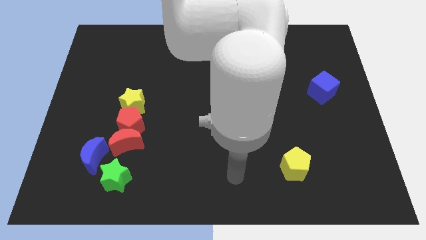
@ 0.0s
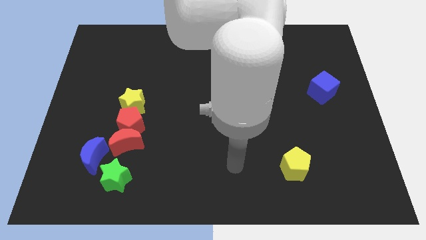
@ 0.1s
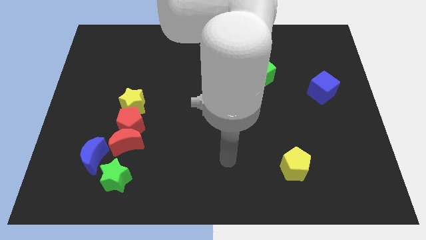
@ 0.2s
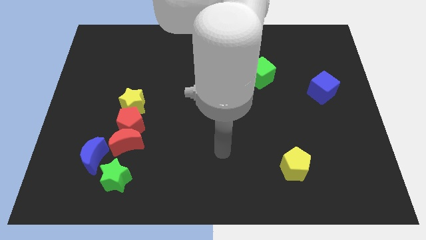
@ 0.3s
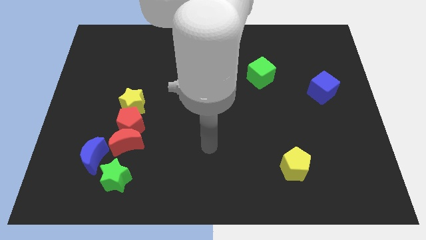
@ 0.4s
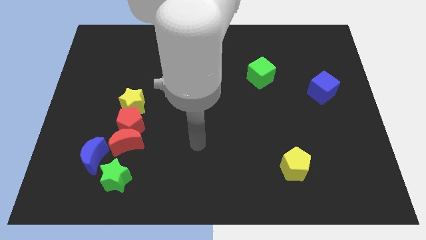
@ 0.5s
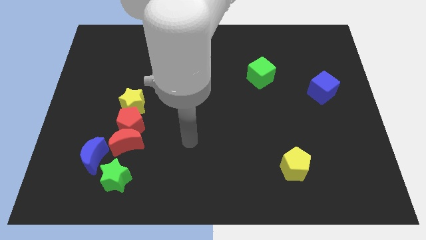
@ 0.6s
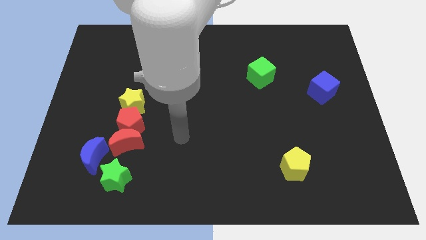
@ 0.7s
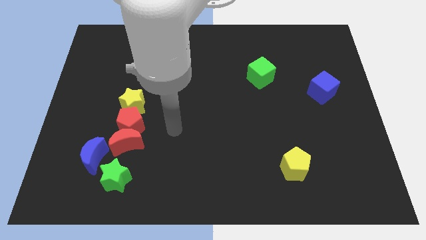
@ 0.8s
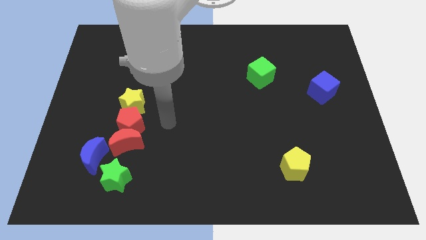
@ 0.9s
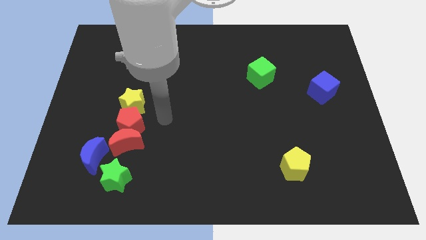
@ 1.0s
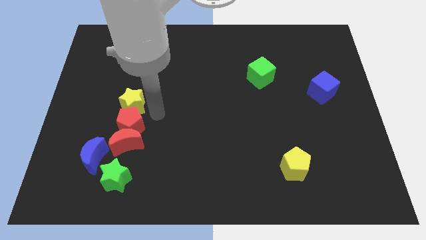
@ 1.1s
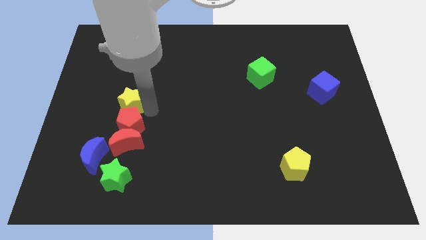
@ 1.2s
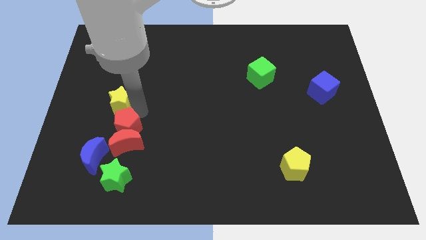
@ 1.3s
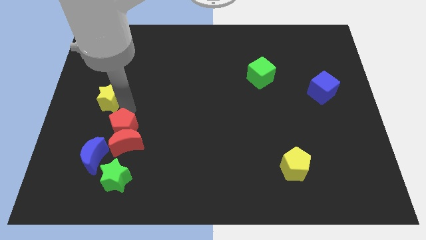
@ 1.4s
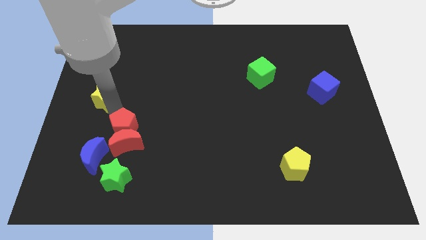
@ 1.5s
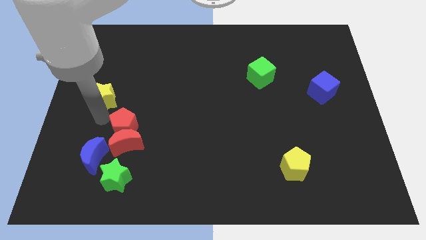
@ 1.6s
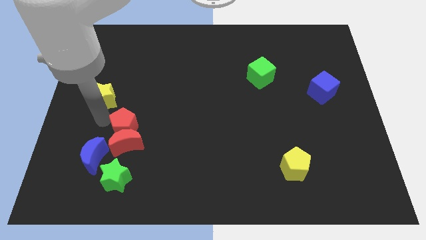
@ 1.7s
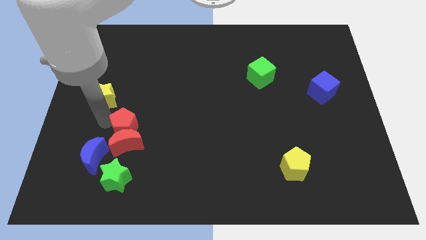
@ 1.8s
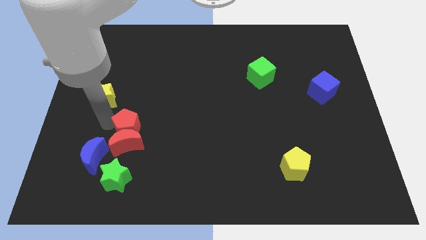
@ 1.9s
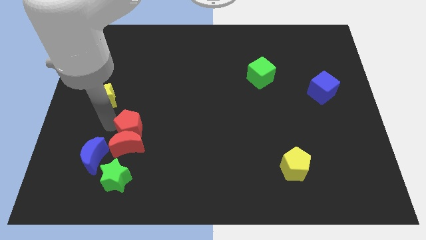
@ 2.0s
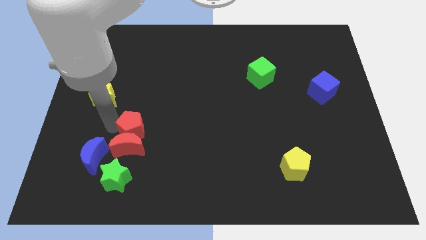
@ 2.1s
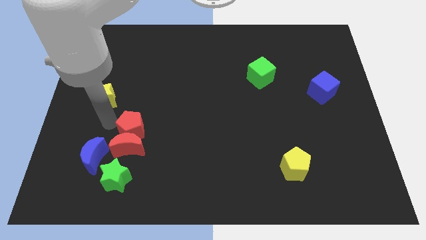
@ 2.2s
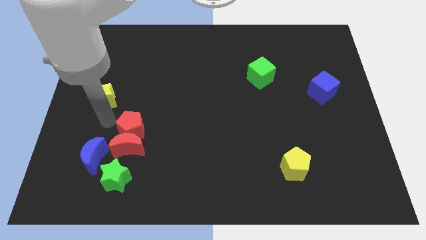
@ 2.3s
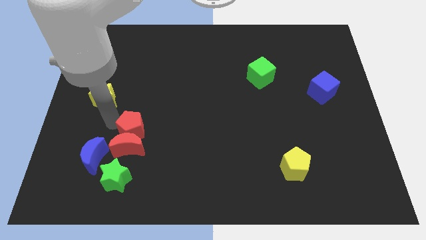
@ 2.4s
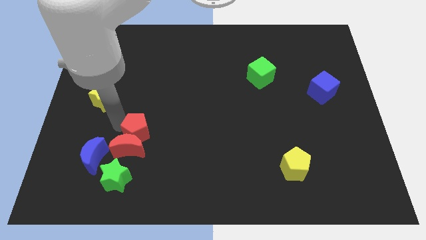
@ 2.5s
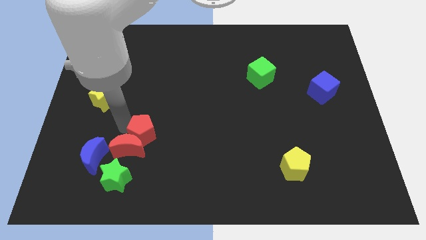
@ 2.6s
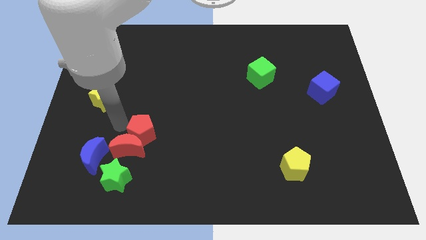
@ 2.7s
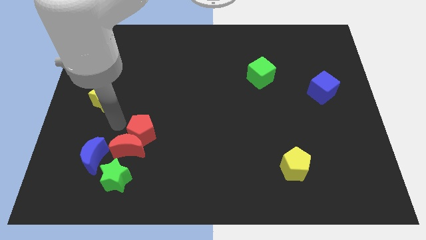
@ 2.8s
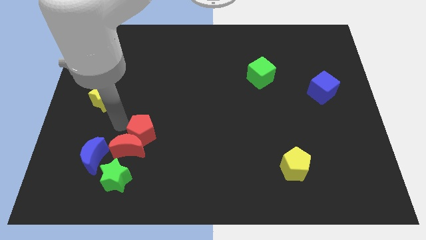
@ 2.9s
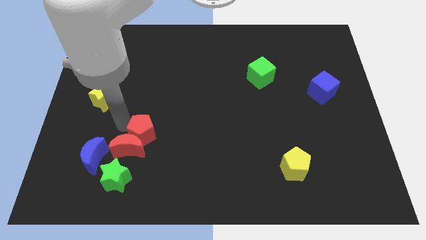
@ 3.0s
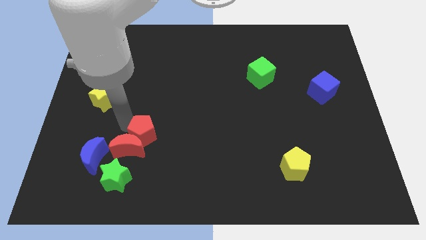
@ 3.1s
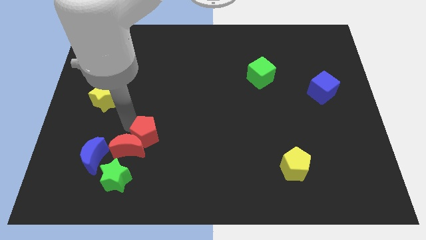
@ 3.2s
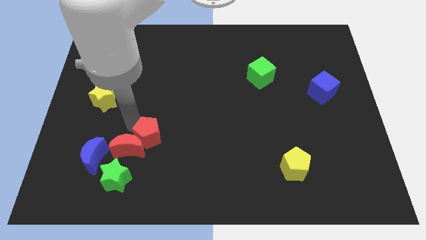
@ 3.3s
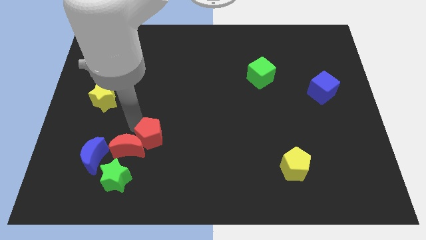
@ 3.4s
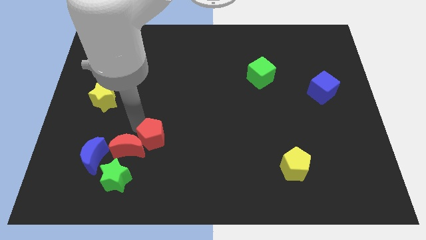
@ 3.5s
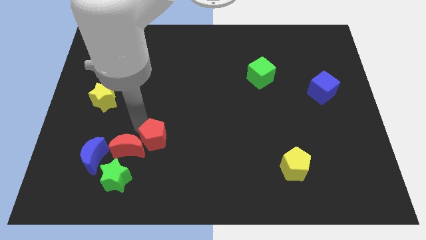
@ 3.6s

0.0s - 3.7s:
separate the red pentagon from the red moon and yellow star

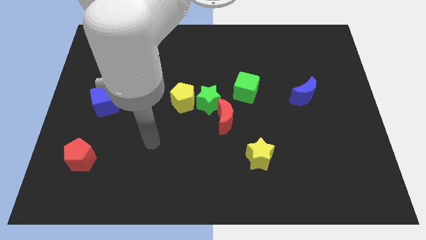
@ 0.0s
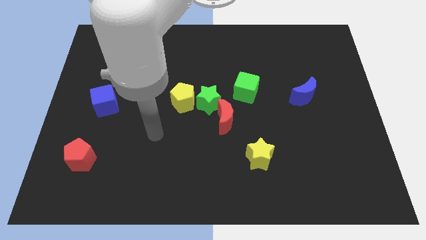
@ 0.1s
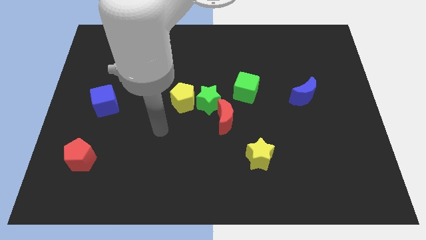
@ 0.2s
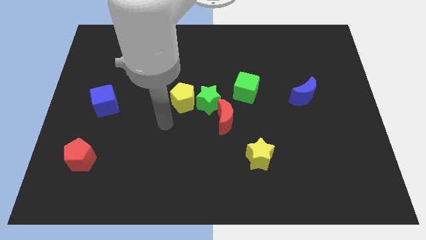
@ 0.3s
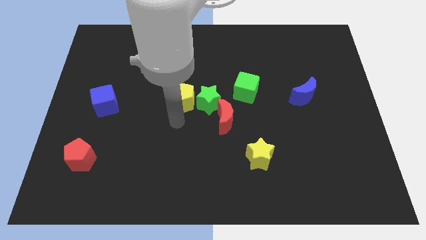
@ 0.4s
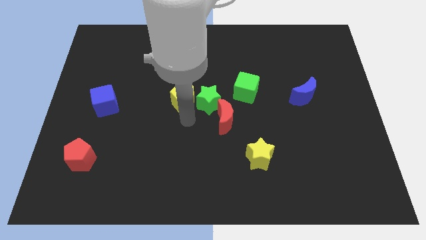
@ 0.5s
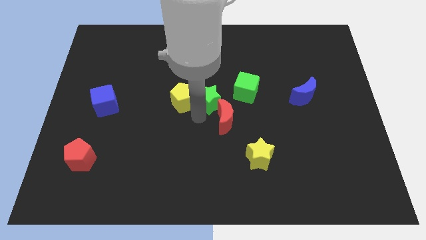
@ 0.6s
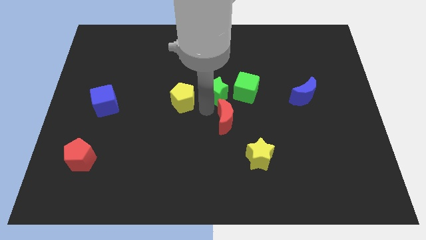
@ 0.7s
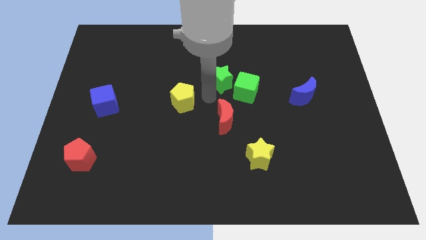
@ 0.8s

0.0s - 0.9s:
separate the yellow pentagon from the green star

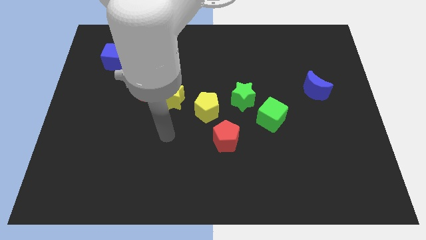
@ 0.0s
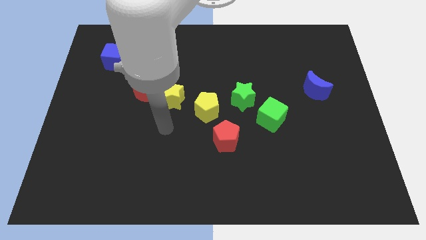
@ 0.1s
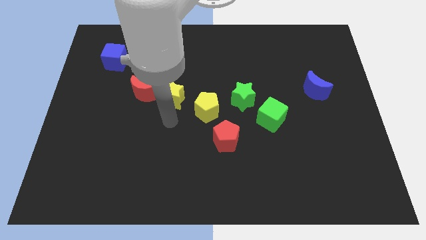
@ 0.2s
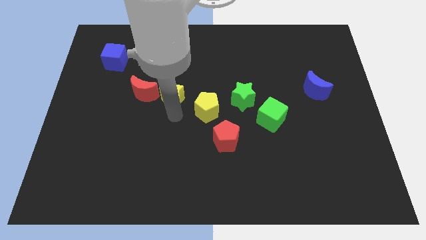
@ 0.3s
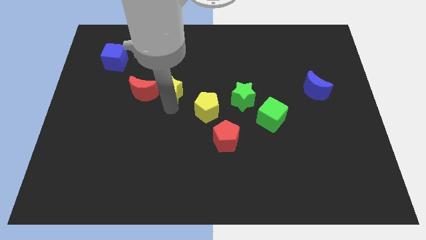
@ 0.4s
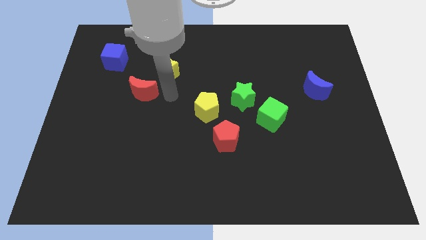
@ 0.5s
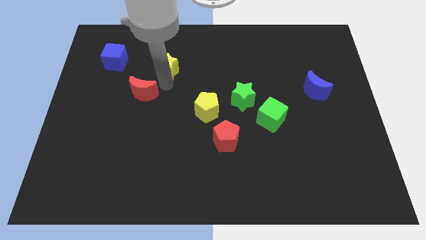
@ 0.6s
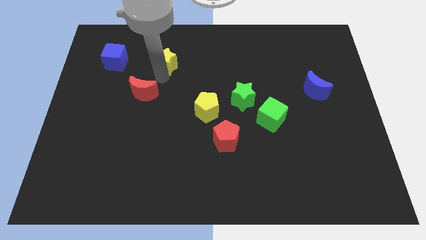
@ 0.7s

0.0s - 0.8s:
separate the red moon from the yellow star

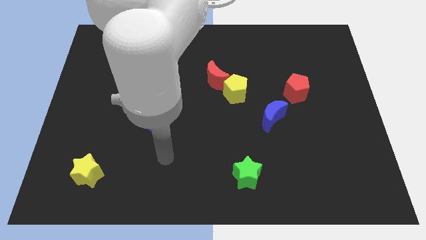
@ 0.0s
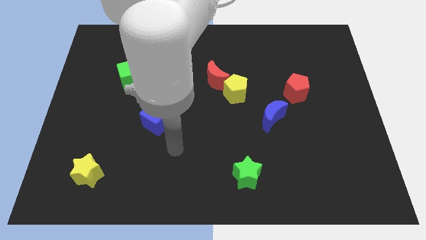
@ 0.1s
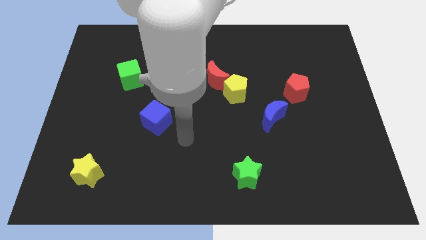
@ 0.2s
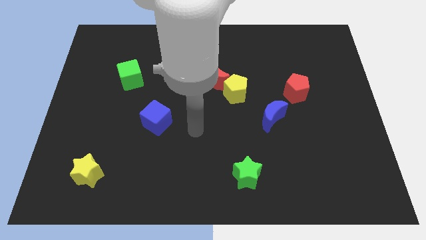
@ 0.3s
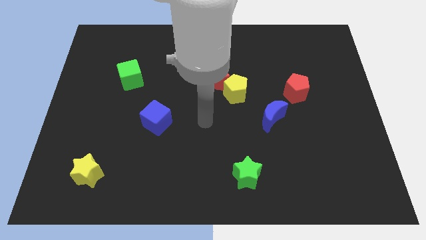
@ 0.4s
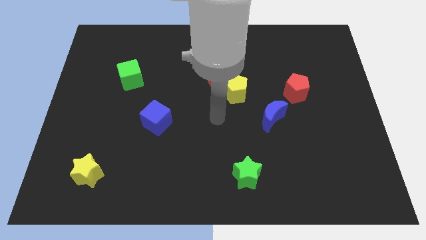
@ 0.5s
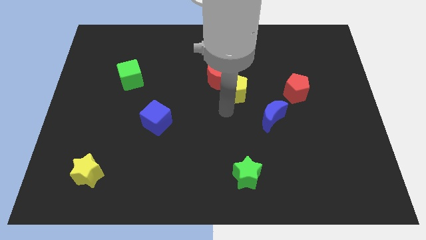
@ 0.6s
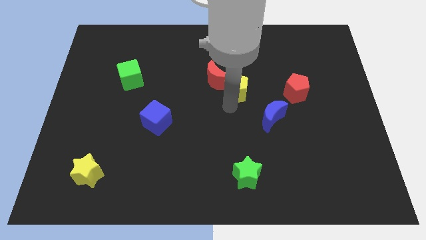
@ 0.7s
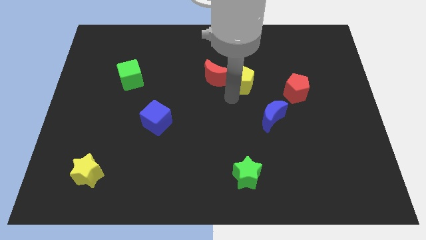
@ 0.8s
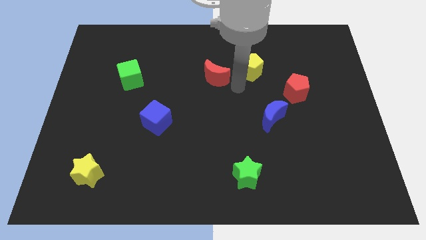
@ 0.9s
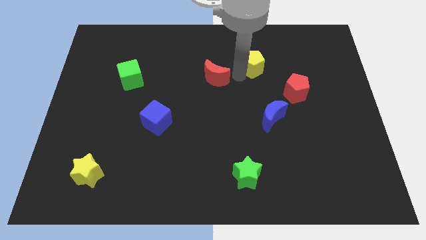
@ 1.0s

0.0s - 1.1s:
separate the red moon from the yellow pentagon

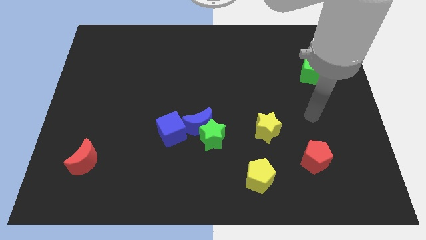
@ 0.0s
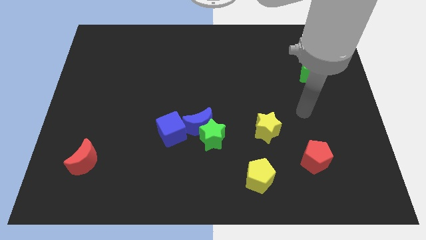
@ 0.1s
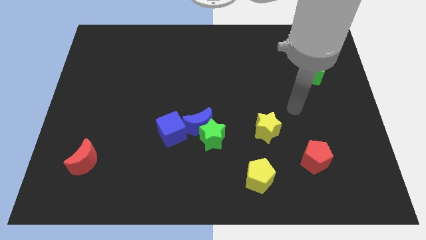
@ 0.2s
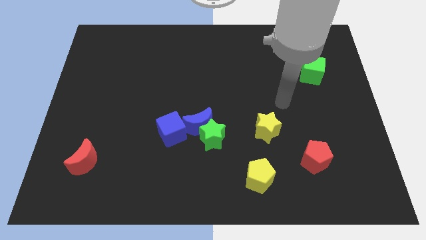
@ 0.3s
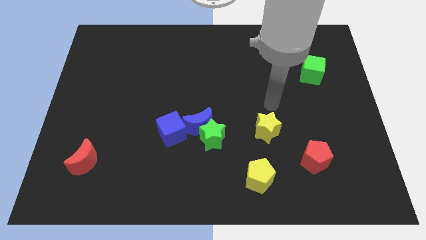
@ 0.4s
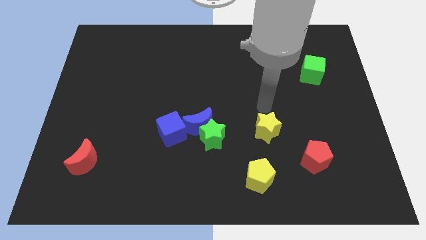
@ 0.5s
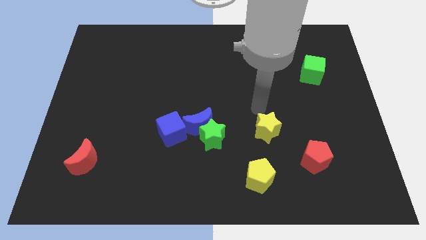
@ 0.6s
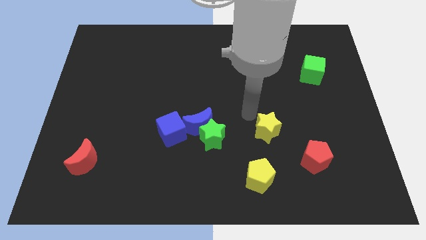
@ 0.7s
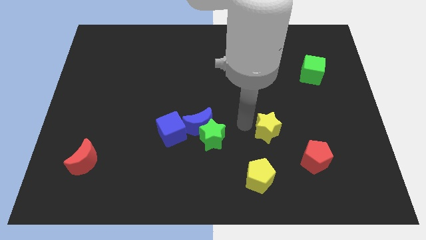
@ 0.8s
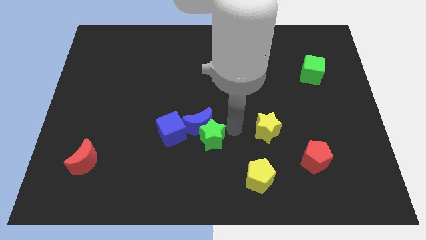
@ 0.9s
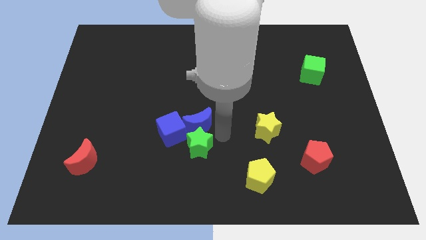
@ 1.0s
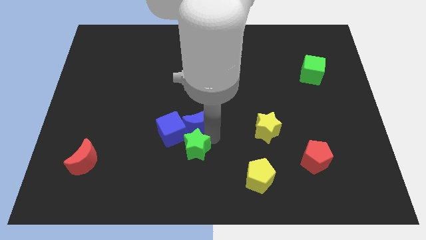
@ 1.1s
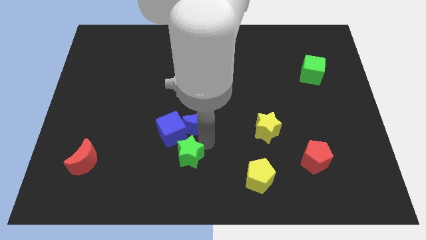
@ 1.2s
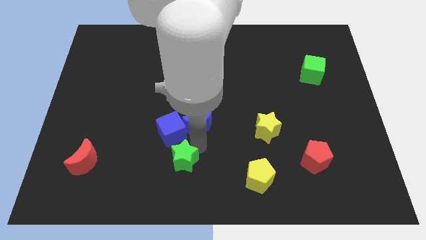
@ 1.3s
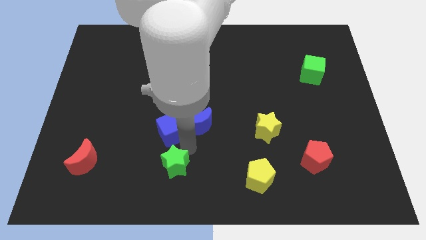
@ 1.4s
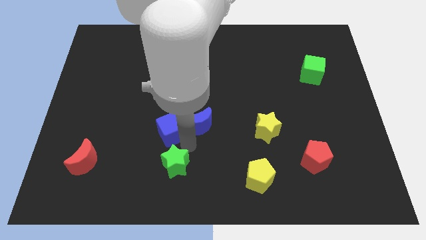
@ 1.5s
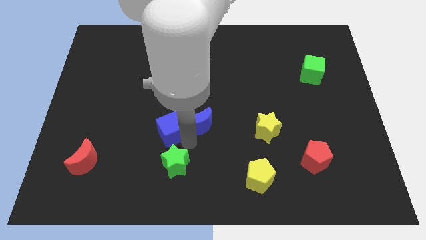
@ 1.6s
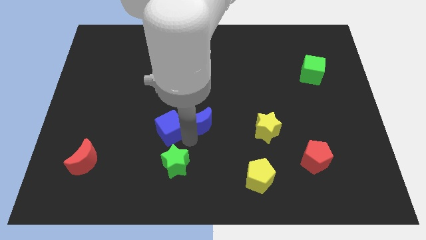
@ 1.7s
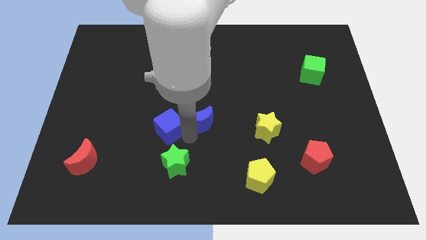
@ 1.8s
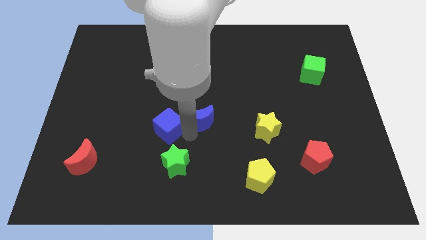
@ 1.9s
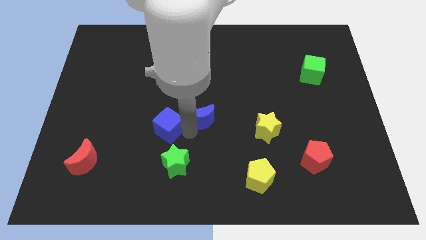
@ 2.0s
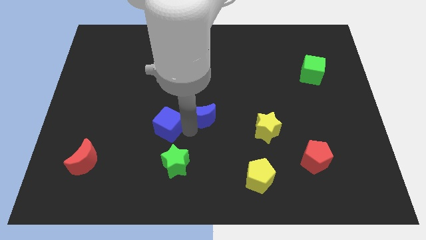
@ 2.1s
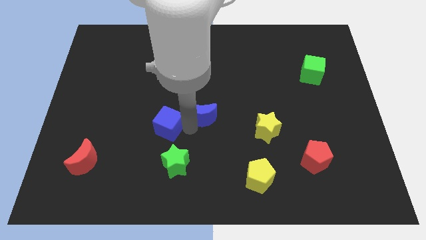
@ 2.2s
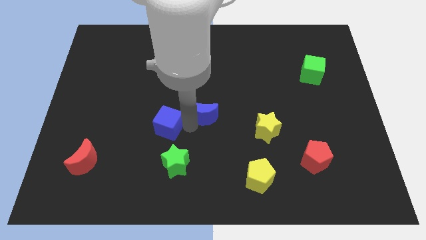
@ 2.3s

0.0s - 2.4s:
move the blue moon away from the green star and blue cube

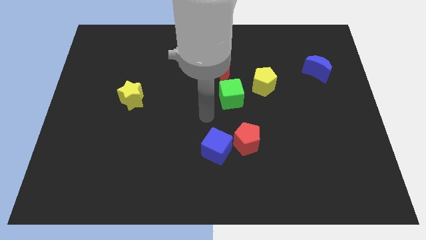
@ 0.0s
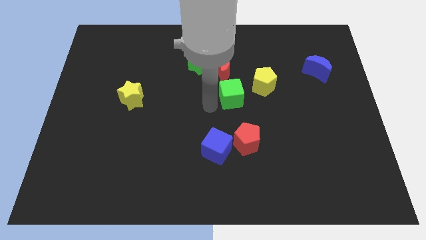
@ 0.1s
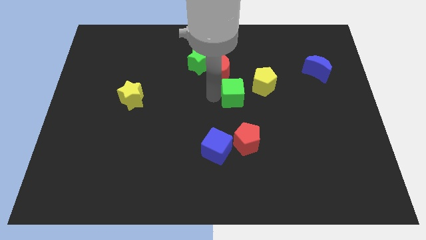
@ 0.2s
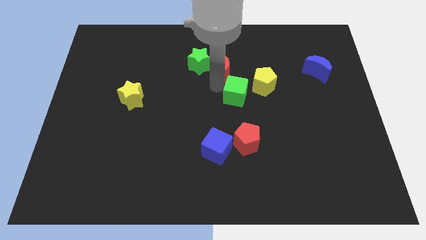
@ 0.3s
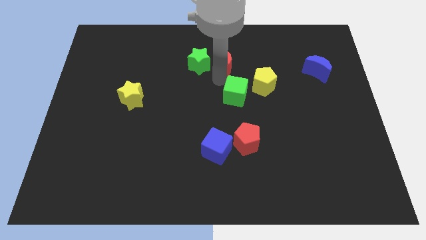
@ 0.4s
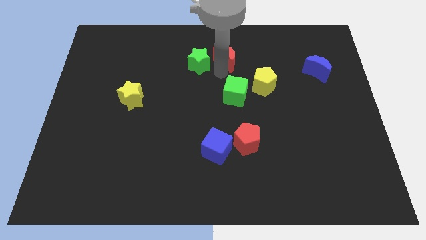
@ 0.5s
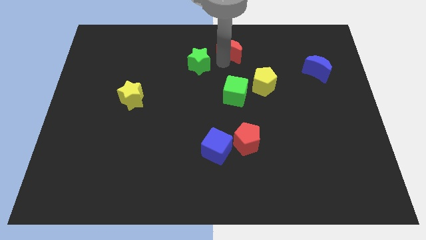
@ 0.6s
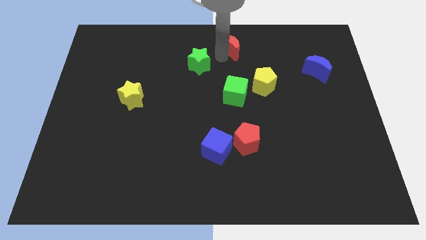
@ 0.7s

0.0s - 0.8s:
move the green star away from the red moon
